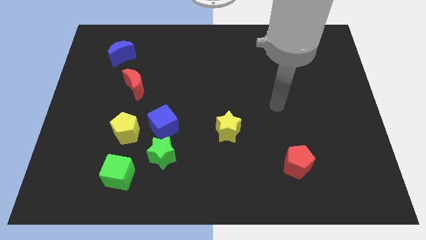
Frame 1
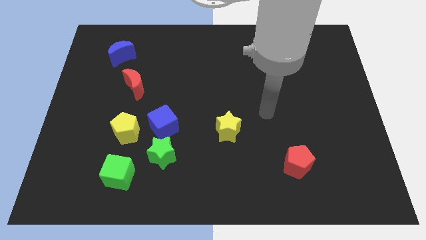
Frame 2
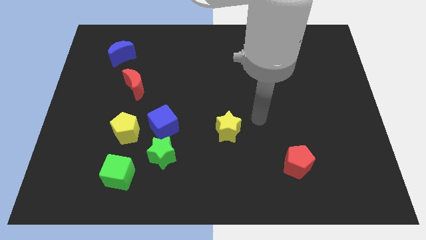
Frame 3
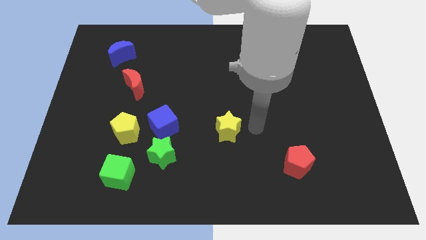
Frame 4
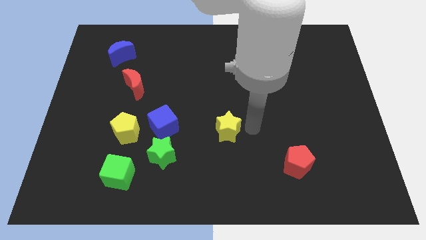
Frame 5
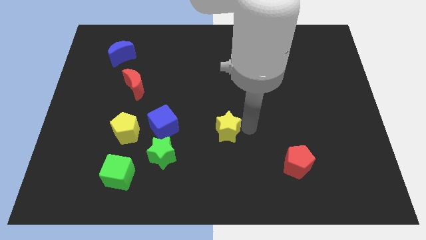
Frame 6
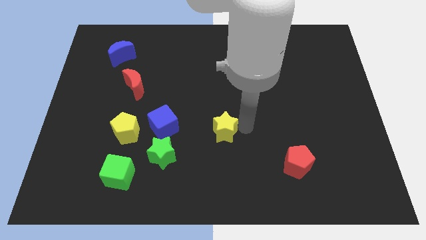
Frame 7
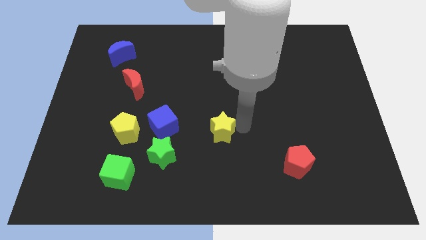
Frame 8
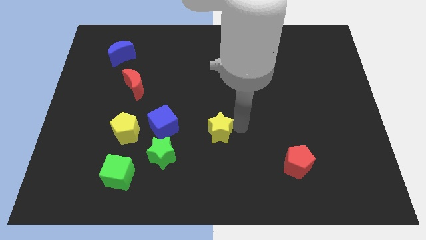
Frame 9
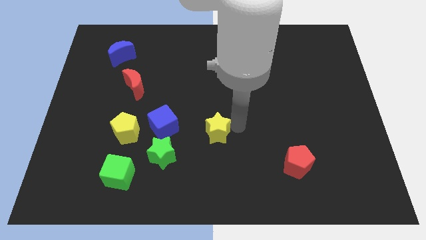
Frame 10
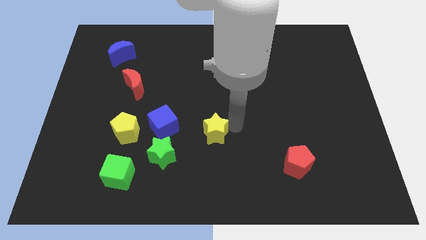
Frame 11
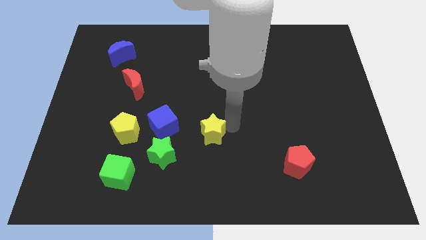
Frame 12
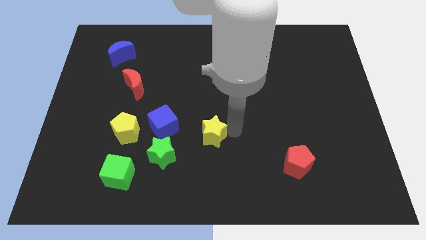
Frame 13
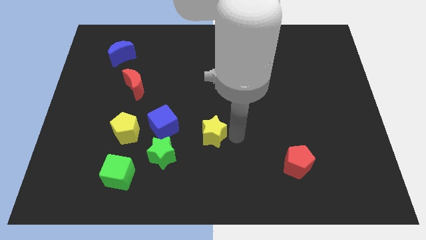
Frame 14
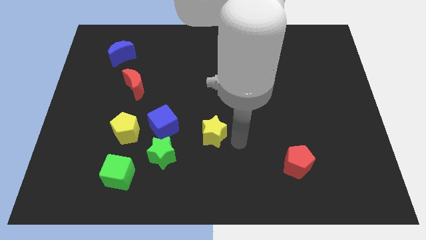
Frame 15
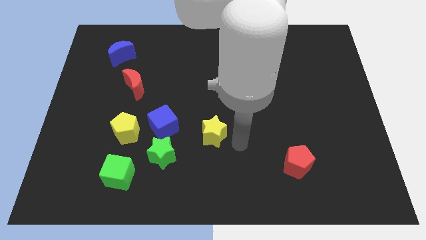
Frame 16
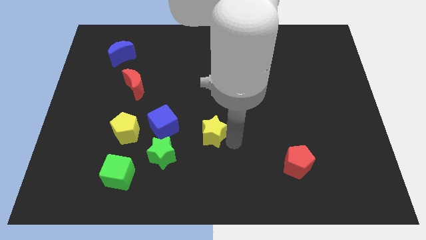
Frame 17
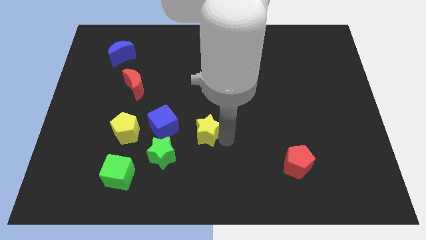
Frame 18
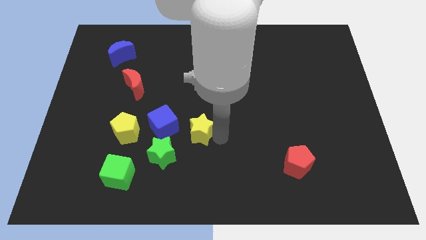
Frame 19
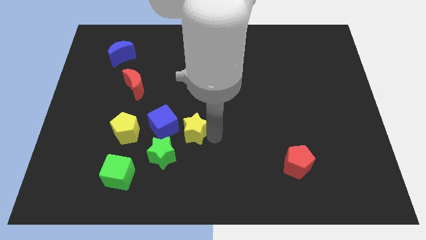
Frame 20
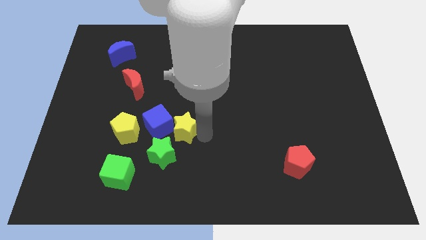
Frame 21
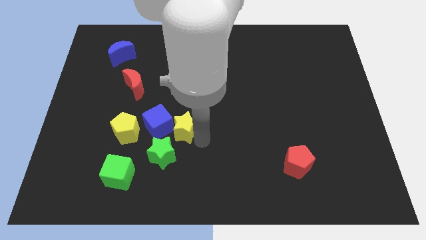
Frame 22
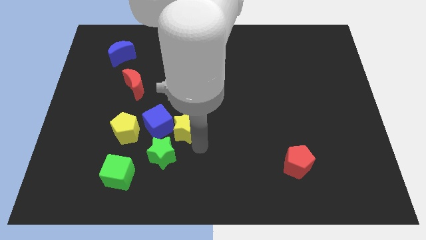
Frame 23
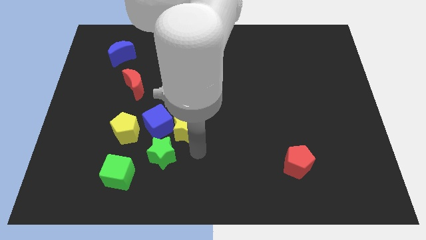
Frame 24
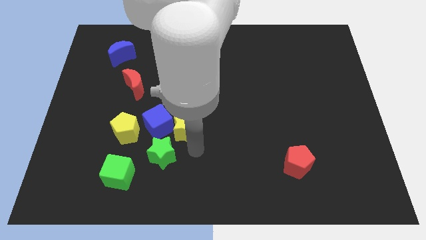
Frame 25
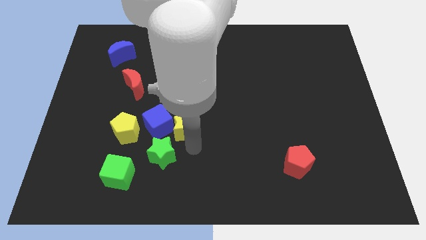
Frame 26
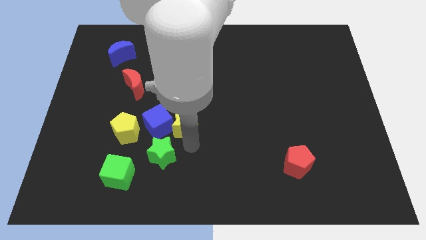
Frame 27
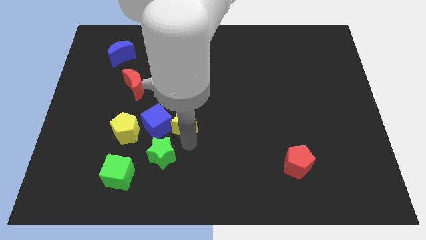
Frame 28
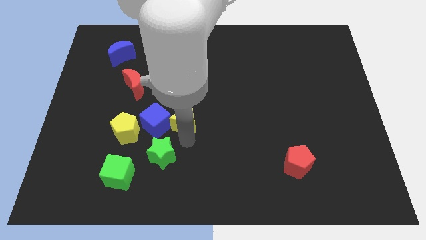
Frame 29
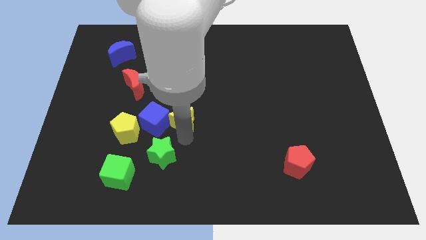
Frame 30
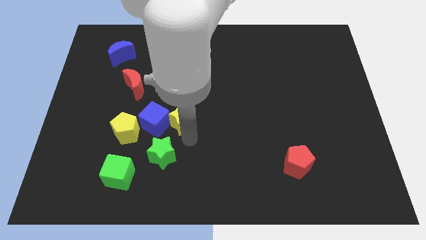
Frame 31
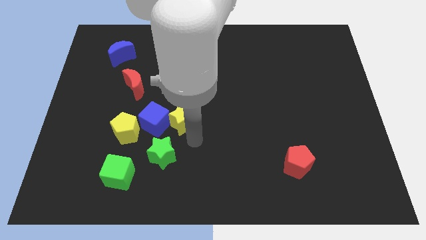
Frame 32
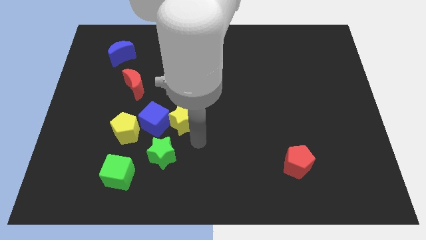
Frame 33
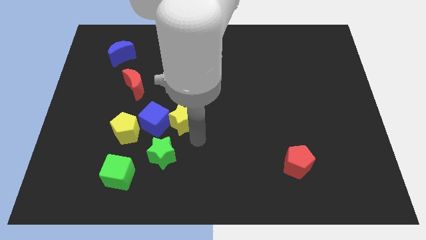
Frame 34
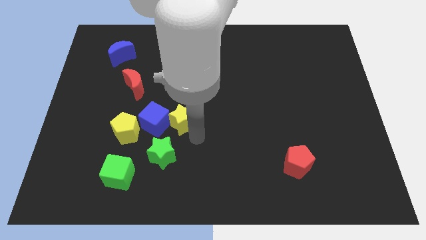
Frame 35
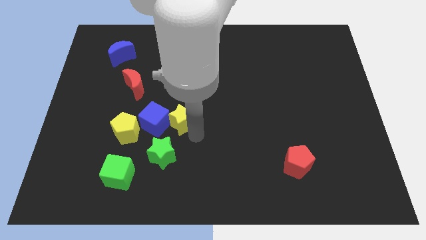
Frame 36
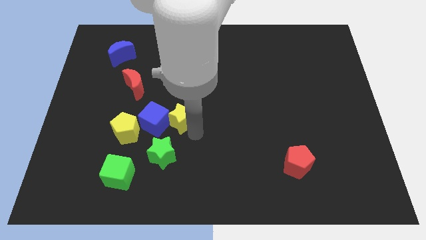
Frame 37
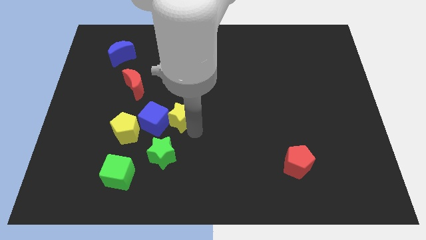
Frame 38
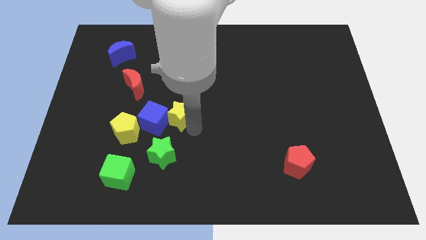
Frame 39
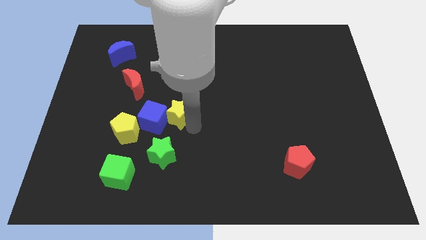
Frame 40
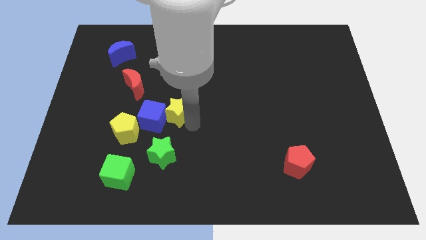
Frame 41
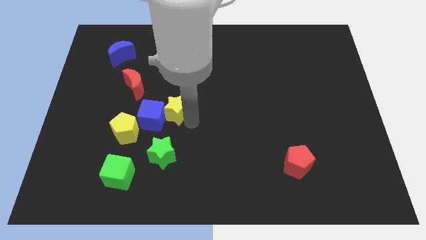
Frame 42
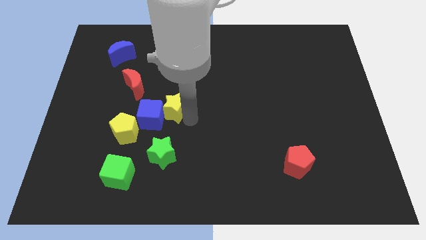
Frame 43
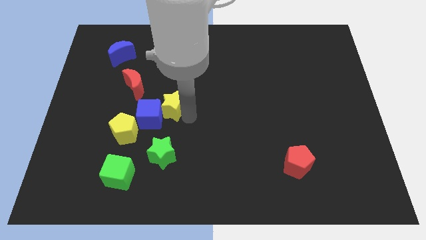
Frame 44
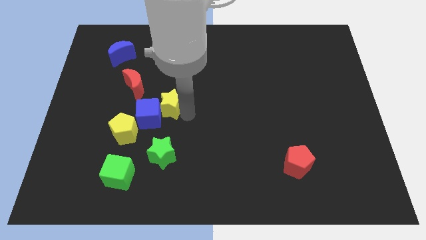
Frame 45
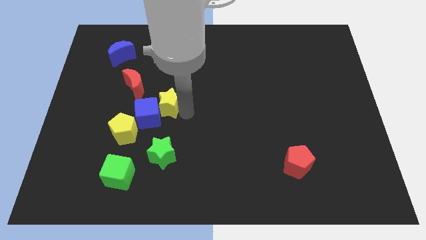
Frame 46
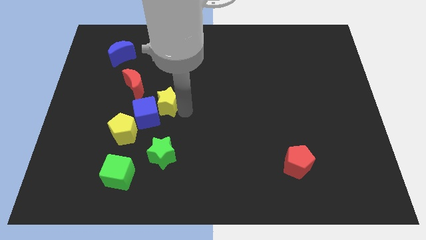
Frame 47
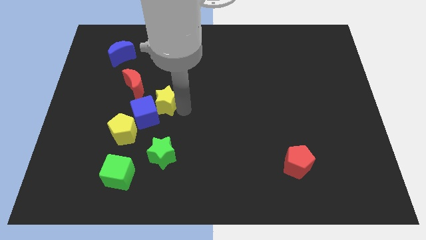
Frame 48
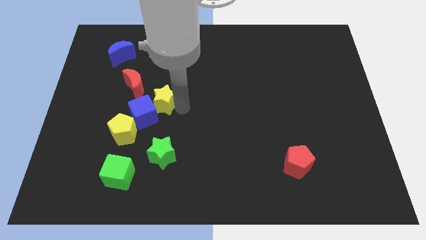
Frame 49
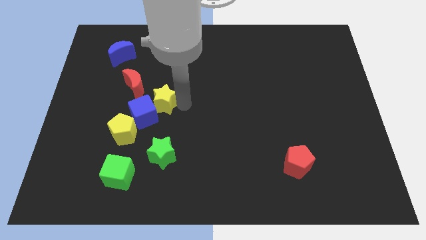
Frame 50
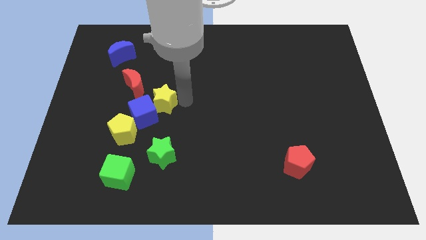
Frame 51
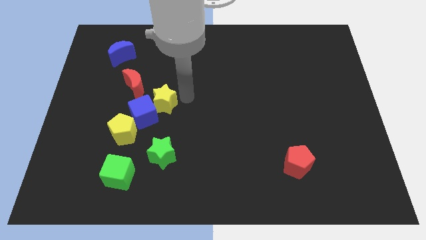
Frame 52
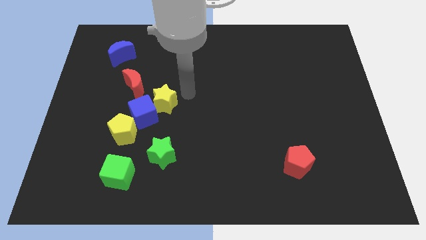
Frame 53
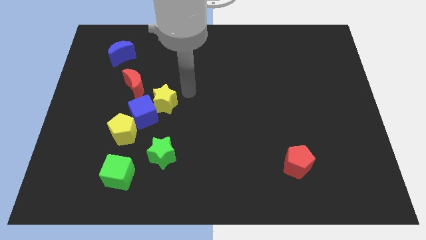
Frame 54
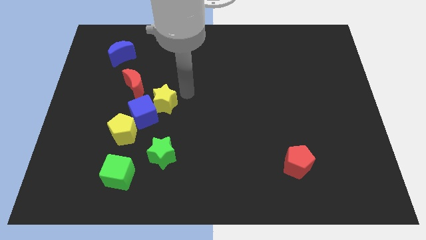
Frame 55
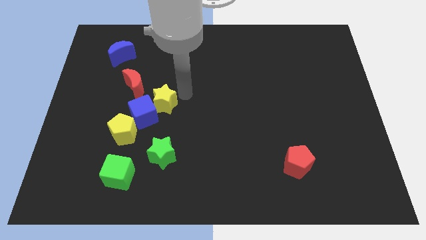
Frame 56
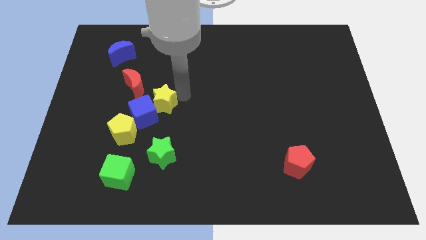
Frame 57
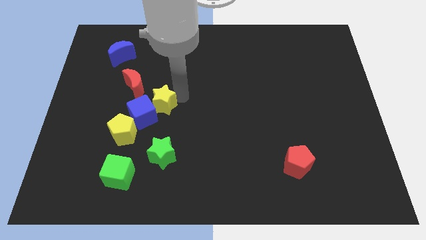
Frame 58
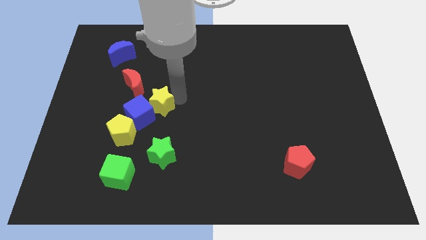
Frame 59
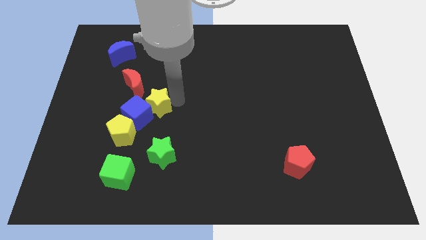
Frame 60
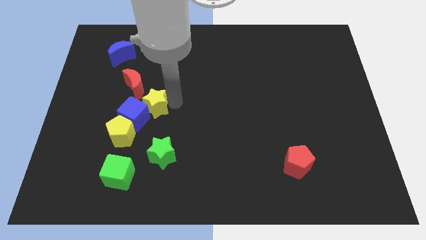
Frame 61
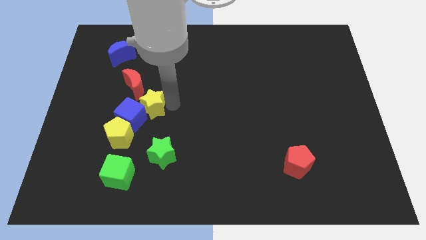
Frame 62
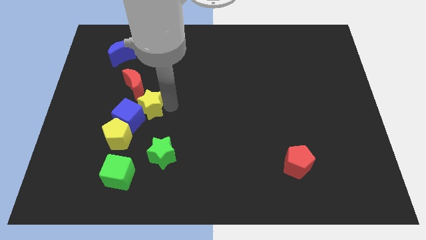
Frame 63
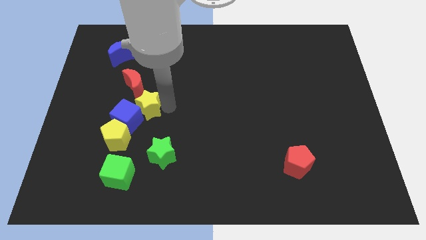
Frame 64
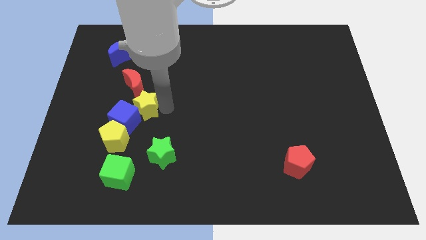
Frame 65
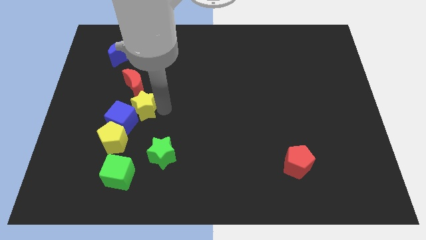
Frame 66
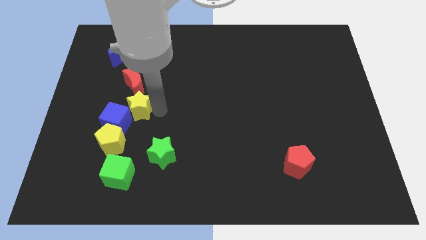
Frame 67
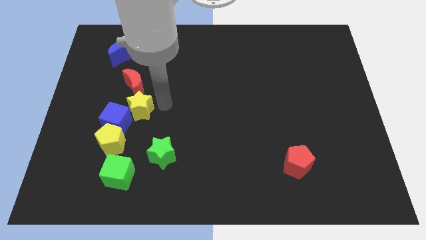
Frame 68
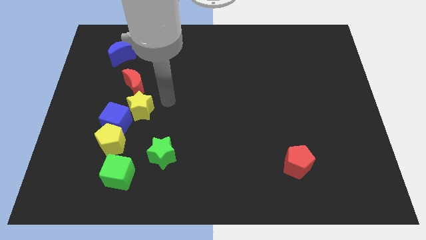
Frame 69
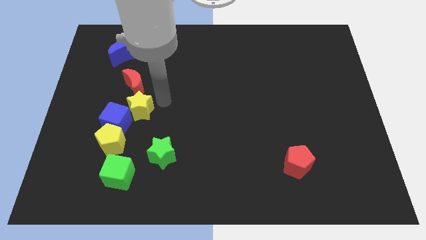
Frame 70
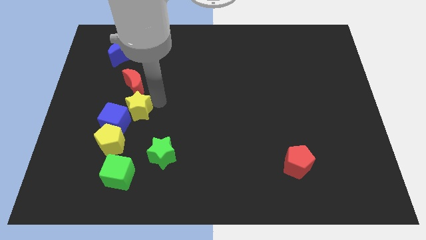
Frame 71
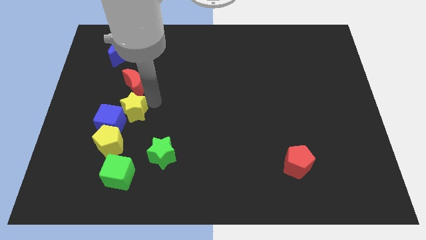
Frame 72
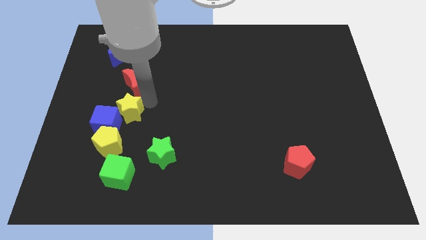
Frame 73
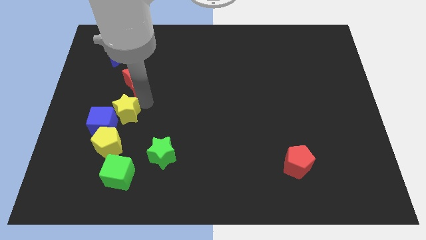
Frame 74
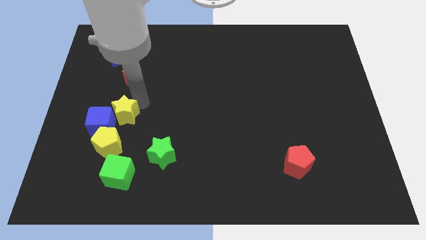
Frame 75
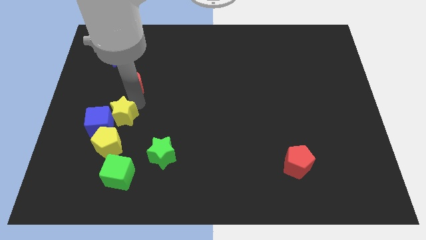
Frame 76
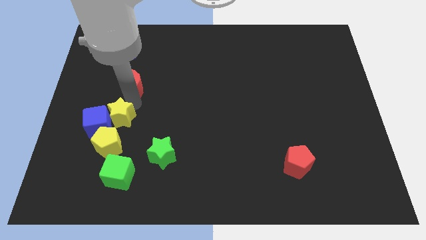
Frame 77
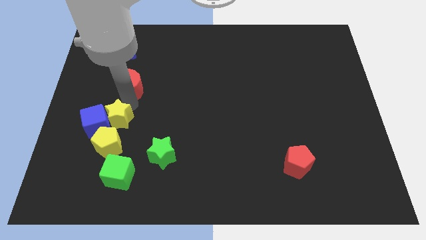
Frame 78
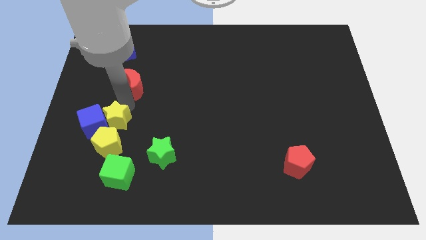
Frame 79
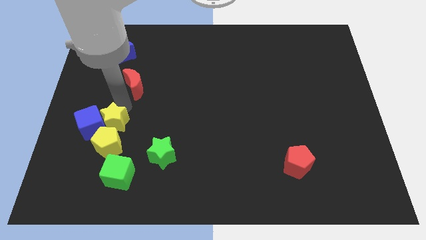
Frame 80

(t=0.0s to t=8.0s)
slide the yellow star to the top left side of the yellow pentagon
